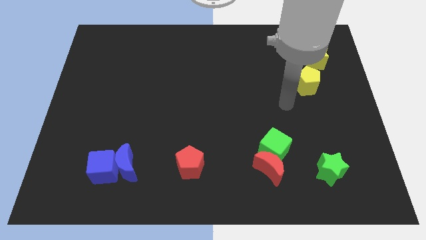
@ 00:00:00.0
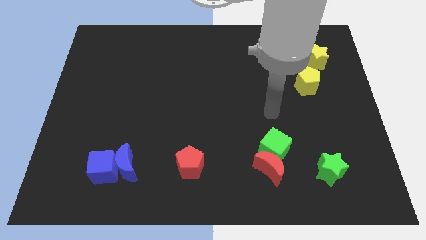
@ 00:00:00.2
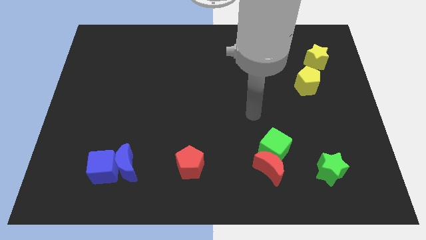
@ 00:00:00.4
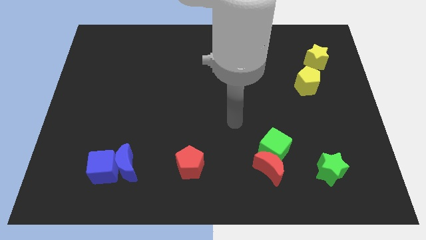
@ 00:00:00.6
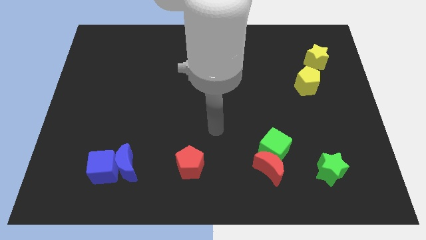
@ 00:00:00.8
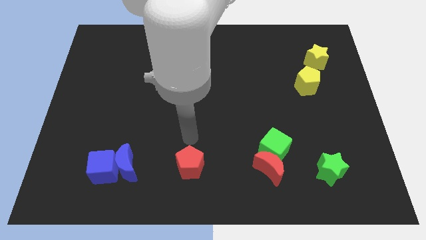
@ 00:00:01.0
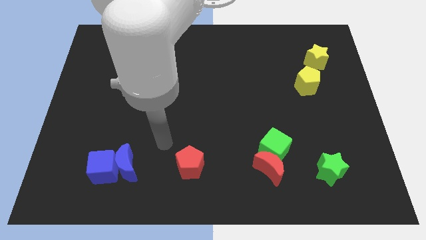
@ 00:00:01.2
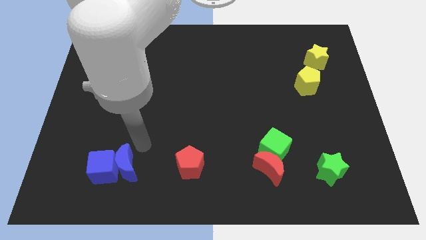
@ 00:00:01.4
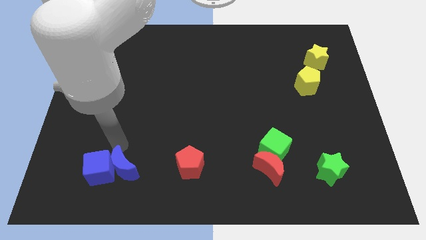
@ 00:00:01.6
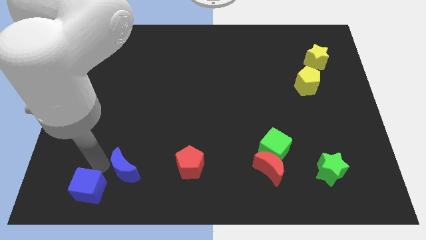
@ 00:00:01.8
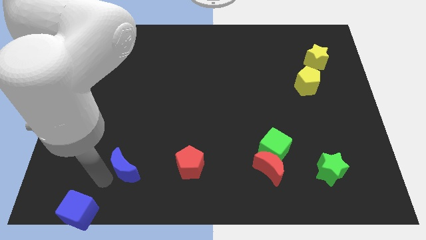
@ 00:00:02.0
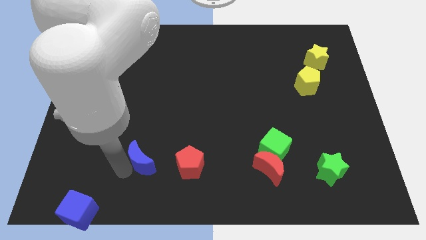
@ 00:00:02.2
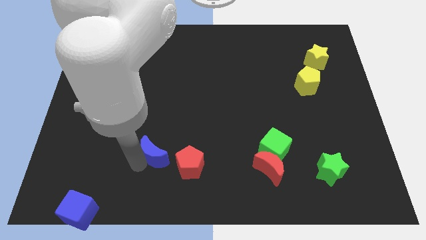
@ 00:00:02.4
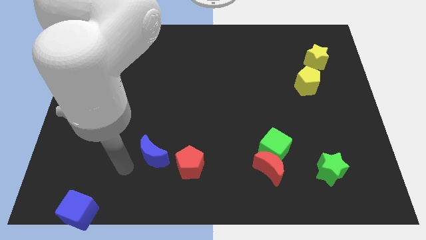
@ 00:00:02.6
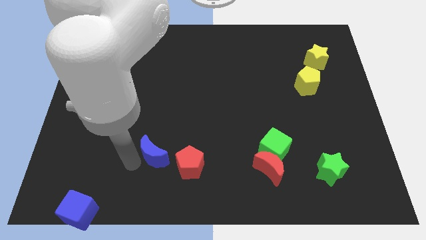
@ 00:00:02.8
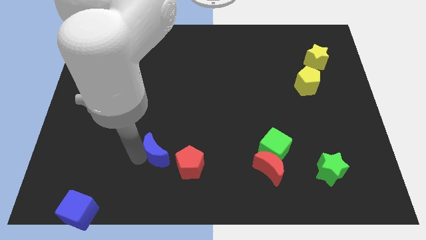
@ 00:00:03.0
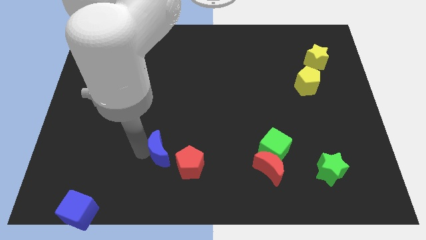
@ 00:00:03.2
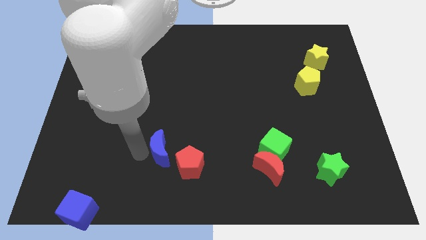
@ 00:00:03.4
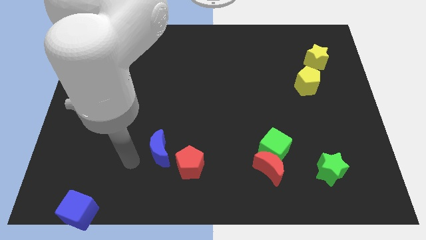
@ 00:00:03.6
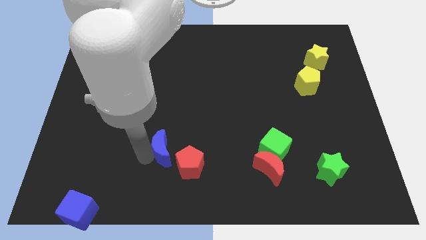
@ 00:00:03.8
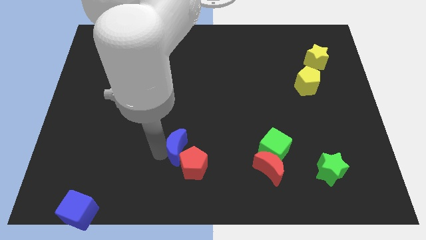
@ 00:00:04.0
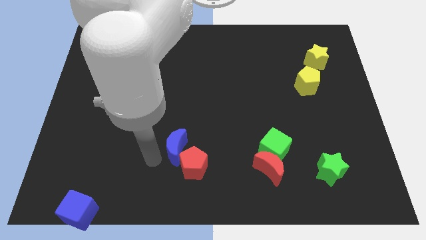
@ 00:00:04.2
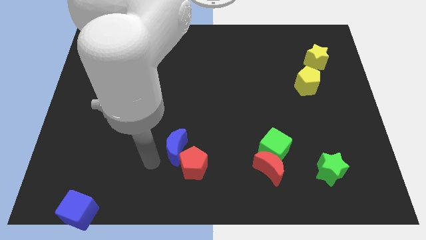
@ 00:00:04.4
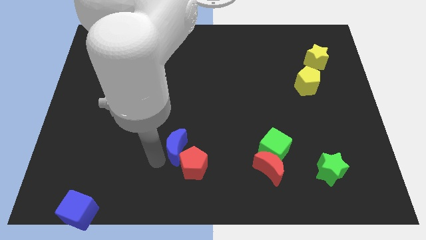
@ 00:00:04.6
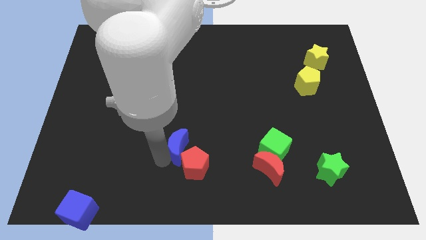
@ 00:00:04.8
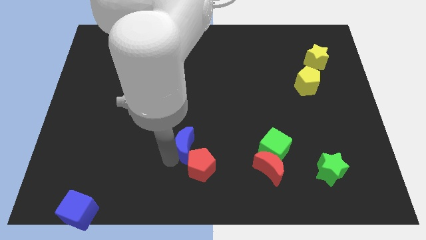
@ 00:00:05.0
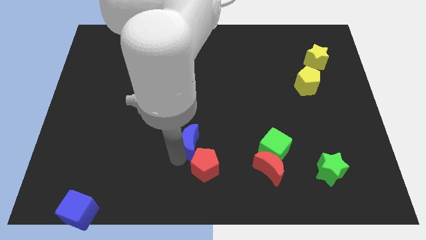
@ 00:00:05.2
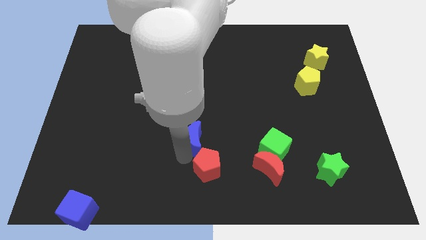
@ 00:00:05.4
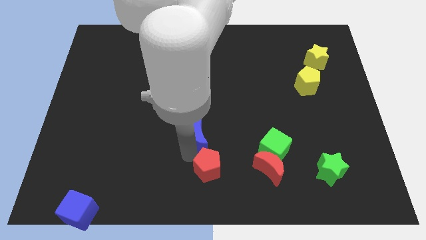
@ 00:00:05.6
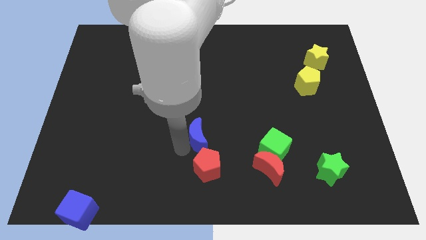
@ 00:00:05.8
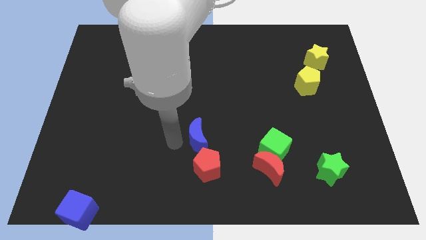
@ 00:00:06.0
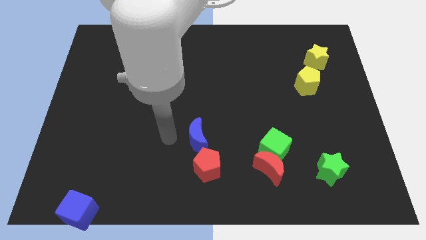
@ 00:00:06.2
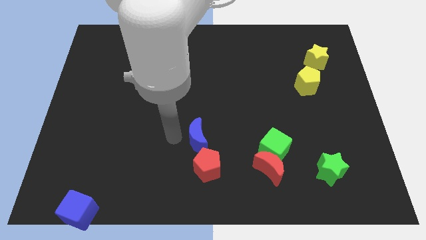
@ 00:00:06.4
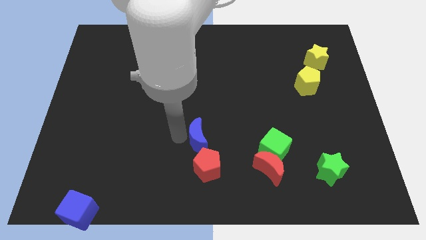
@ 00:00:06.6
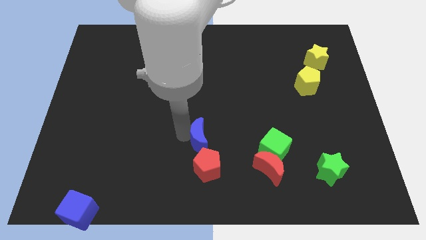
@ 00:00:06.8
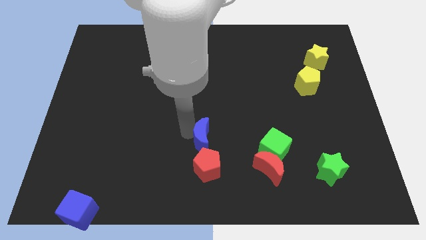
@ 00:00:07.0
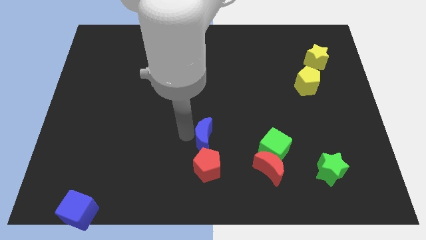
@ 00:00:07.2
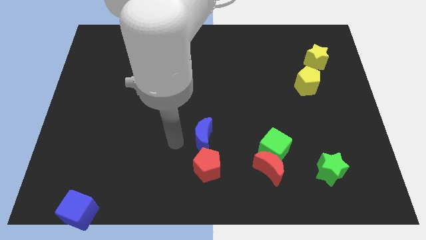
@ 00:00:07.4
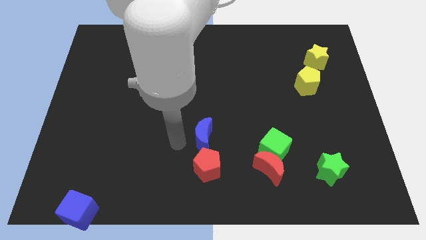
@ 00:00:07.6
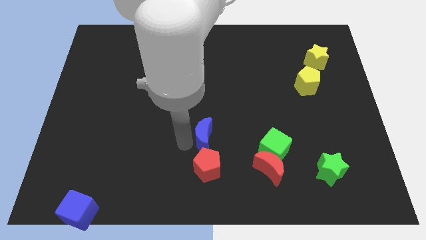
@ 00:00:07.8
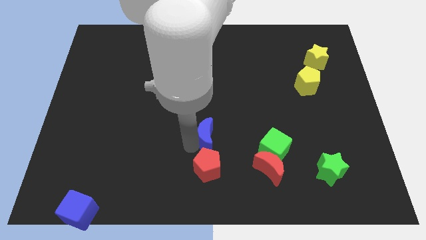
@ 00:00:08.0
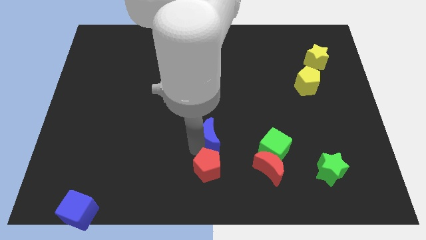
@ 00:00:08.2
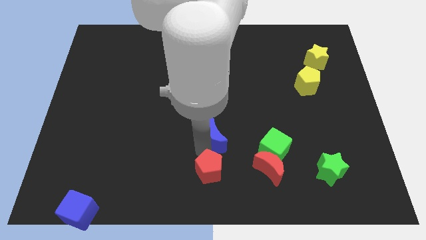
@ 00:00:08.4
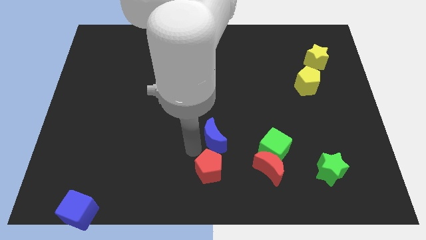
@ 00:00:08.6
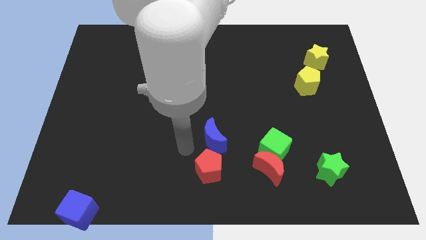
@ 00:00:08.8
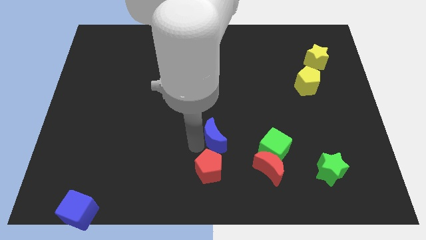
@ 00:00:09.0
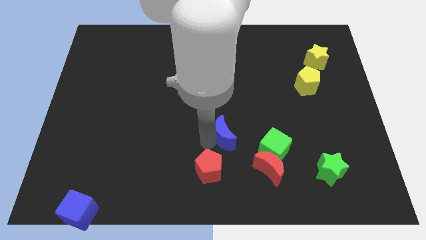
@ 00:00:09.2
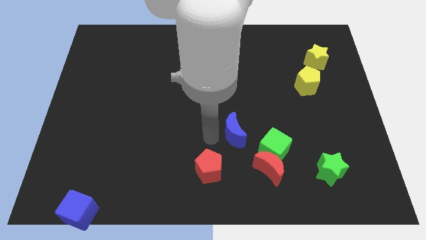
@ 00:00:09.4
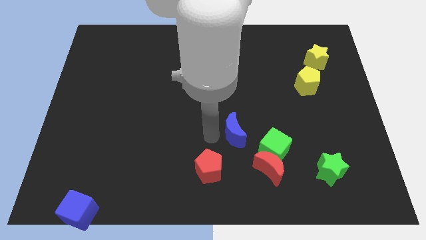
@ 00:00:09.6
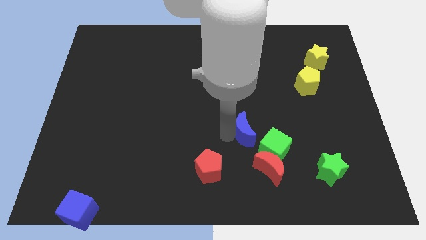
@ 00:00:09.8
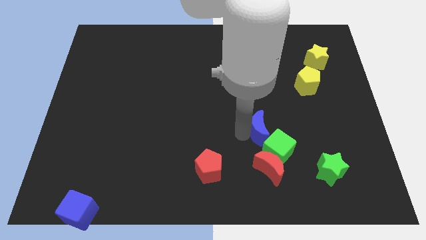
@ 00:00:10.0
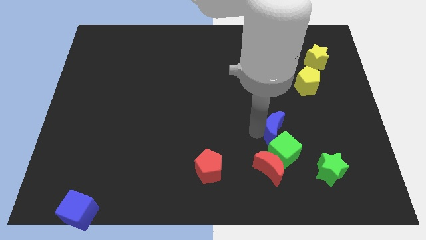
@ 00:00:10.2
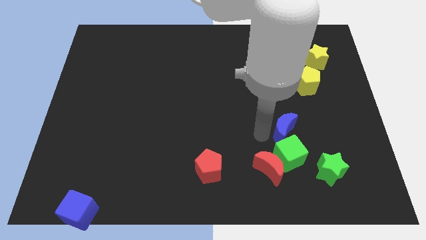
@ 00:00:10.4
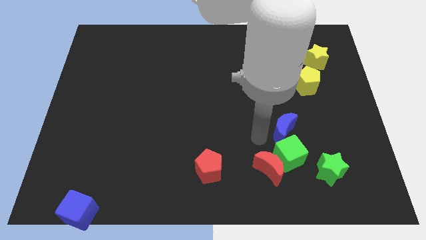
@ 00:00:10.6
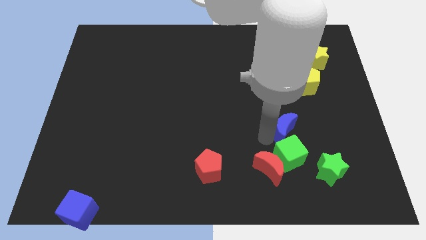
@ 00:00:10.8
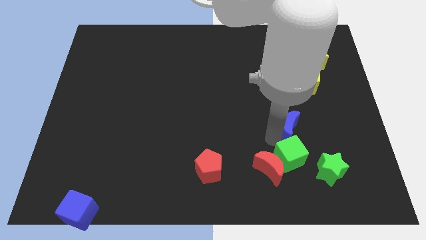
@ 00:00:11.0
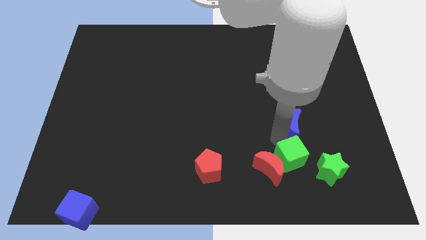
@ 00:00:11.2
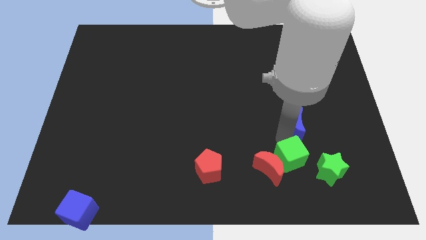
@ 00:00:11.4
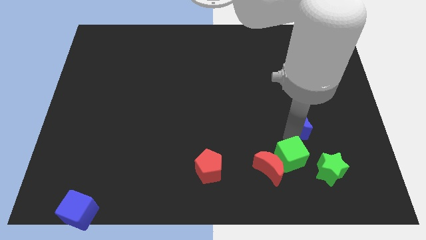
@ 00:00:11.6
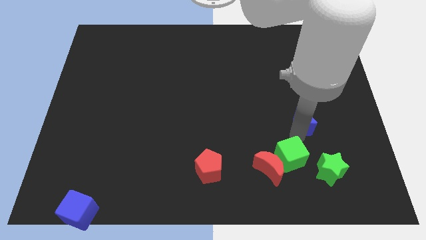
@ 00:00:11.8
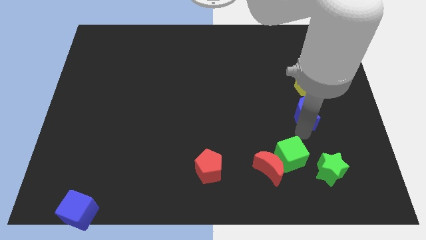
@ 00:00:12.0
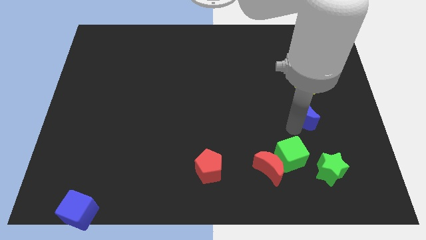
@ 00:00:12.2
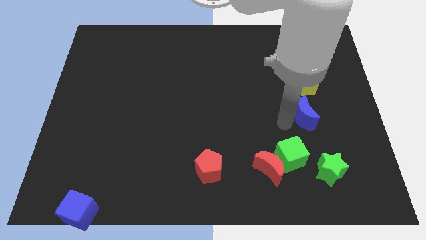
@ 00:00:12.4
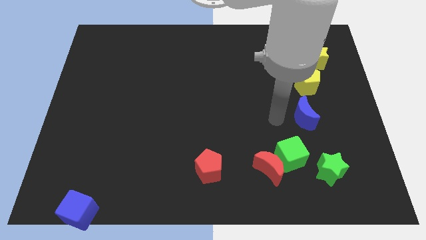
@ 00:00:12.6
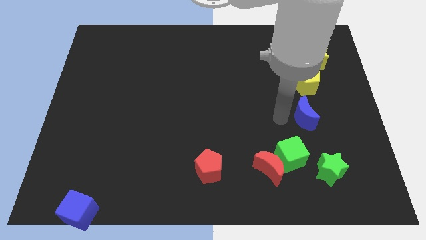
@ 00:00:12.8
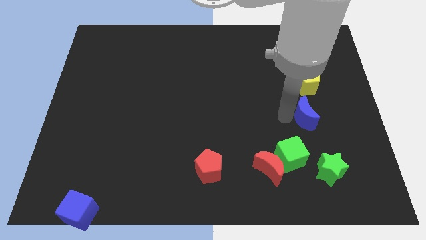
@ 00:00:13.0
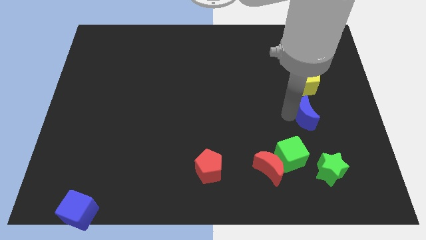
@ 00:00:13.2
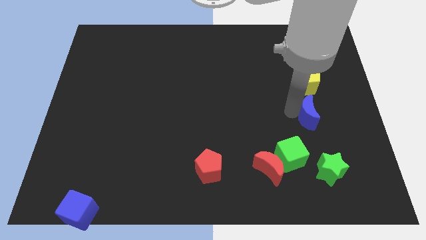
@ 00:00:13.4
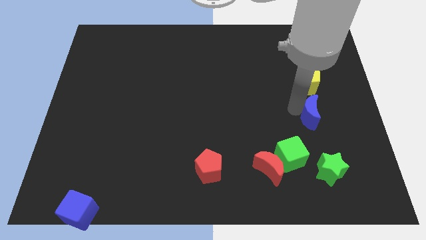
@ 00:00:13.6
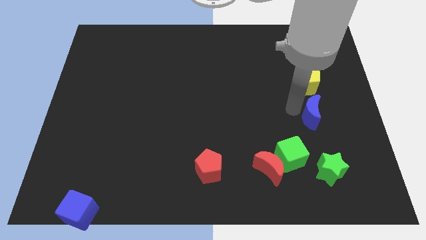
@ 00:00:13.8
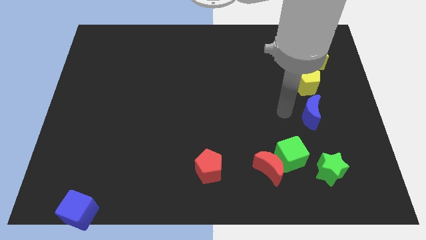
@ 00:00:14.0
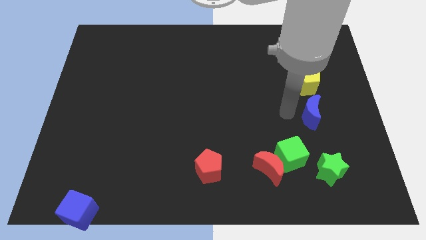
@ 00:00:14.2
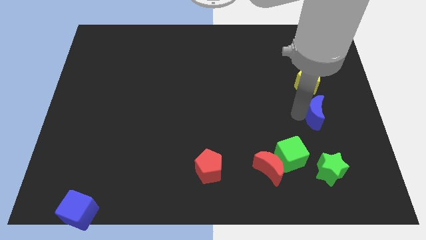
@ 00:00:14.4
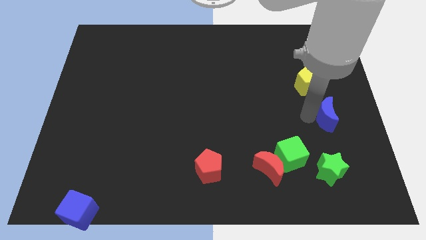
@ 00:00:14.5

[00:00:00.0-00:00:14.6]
move the blue moon to the right side

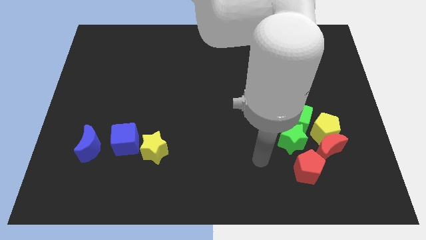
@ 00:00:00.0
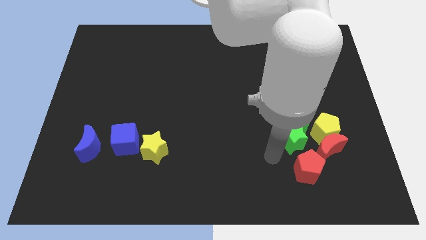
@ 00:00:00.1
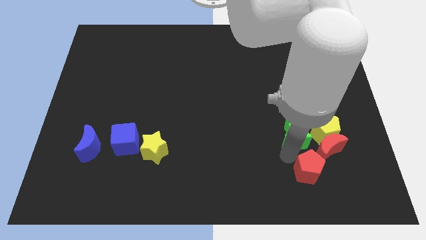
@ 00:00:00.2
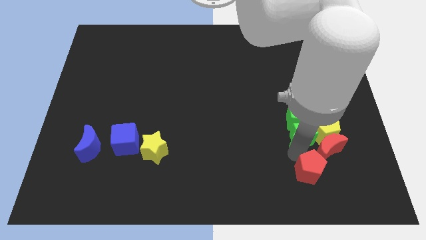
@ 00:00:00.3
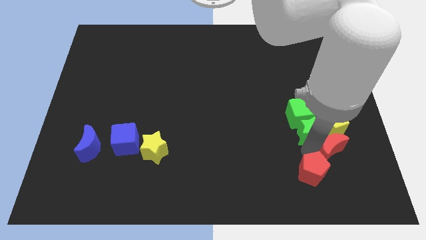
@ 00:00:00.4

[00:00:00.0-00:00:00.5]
put the yellow pentagon to the right side
